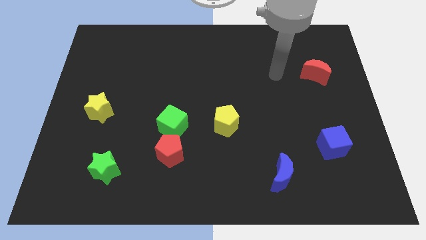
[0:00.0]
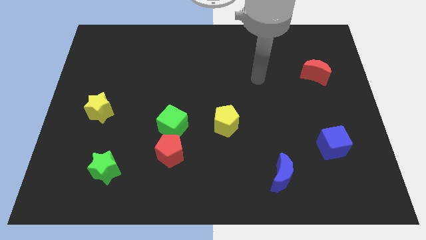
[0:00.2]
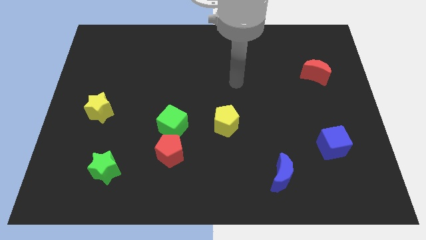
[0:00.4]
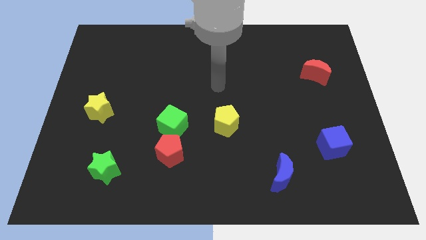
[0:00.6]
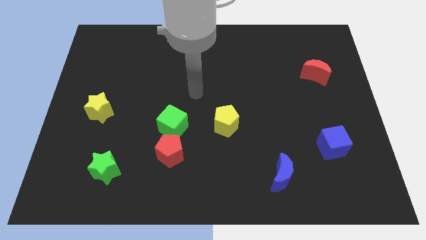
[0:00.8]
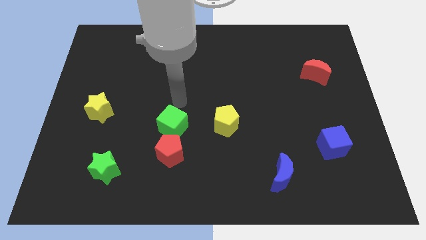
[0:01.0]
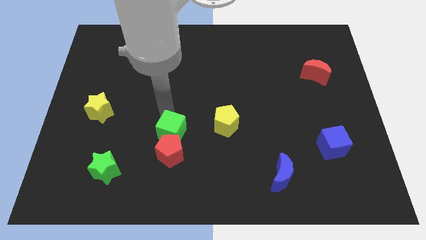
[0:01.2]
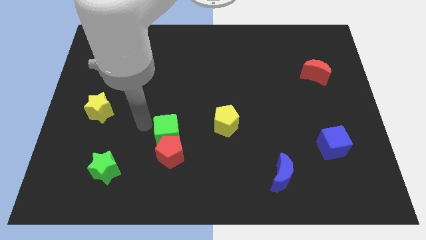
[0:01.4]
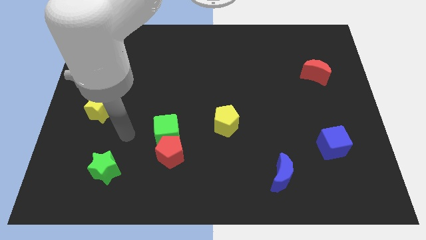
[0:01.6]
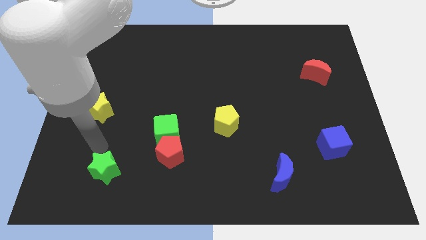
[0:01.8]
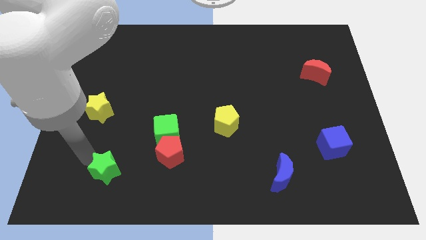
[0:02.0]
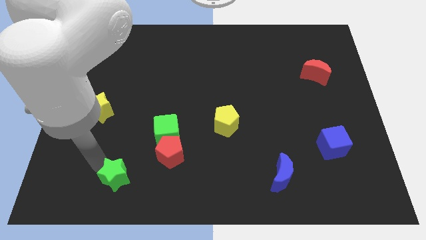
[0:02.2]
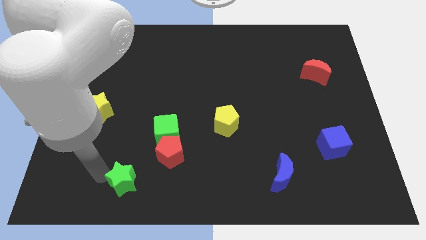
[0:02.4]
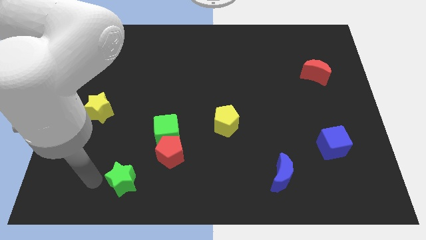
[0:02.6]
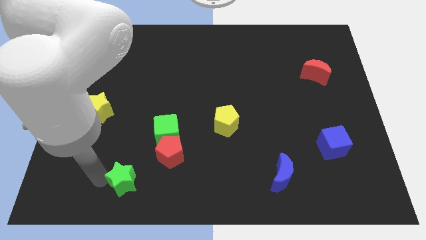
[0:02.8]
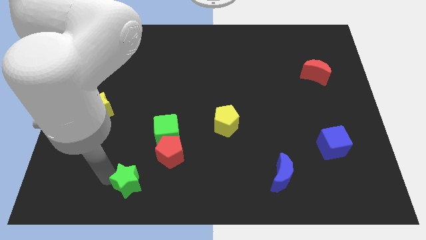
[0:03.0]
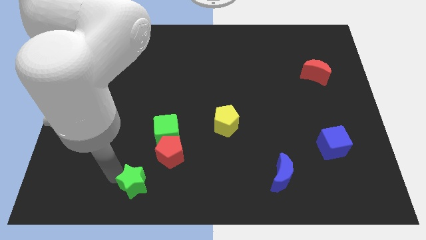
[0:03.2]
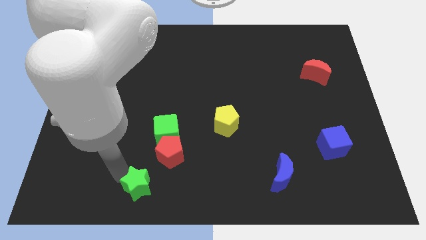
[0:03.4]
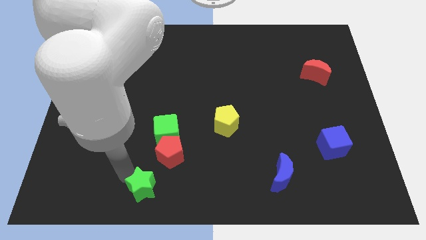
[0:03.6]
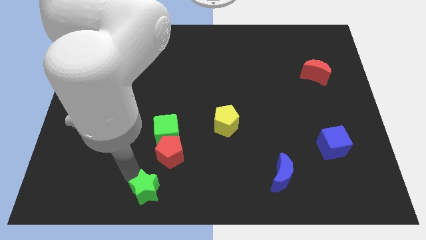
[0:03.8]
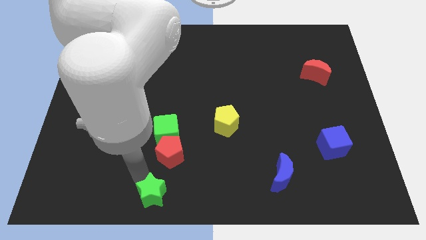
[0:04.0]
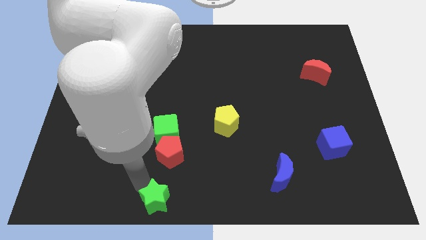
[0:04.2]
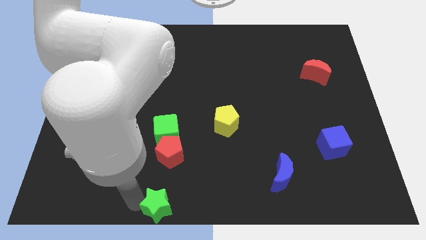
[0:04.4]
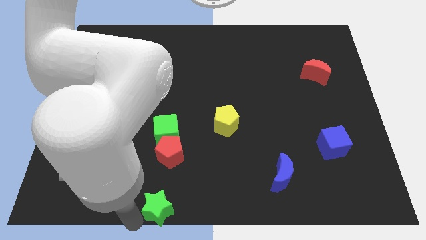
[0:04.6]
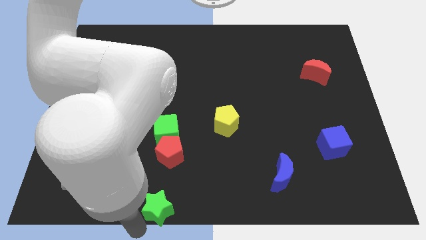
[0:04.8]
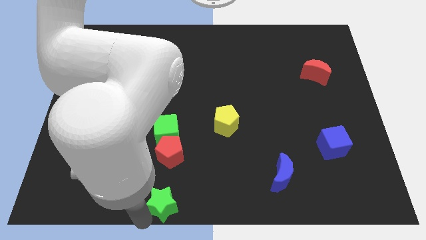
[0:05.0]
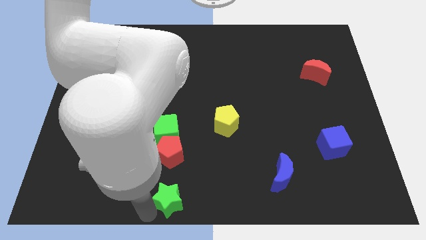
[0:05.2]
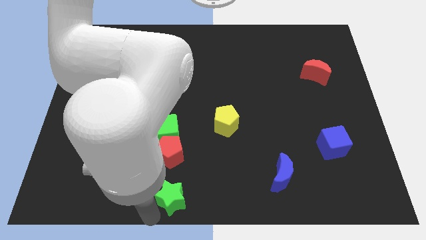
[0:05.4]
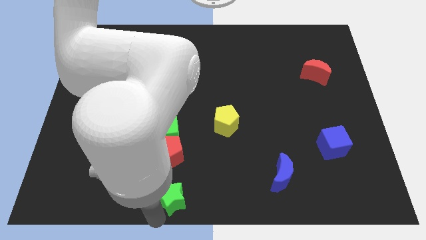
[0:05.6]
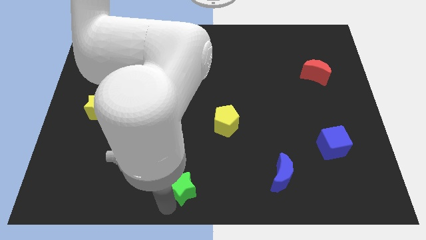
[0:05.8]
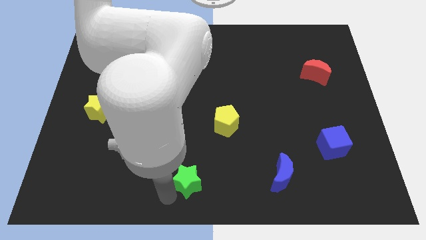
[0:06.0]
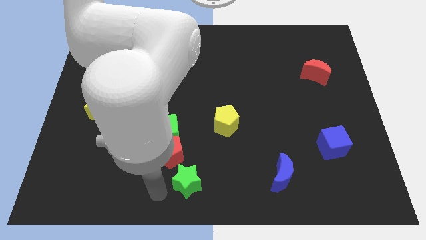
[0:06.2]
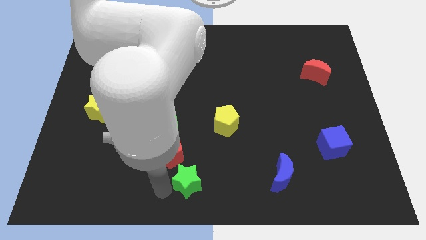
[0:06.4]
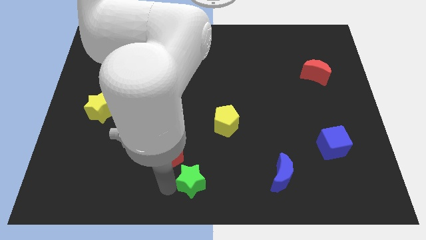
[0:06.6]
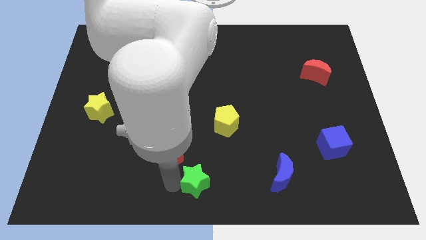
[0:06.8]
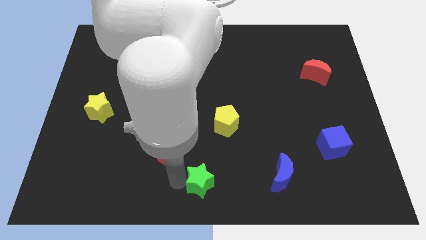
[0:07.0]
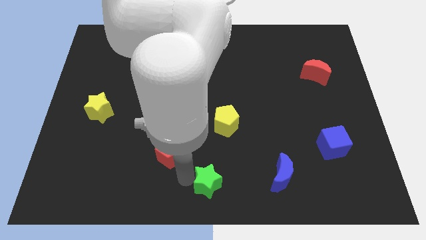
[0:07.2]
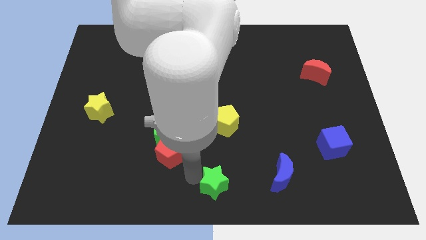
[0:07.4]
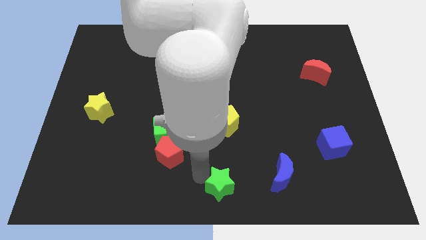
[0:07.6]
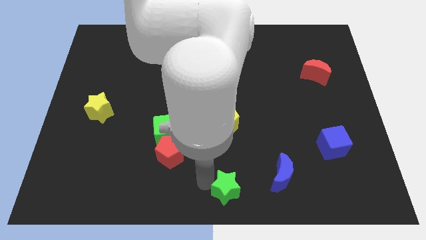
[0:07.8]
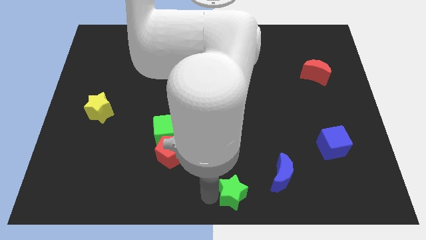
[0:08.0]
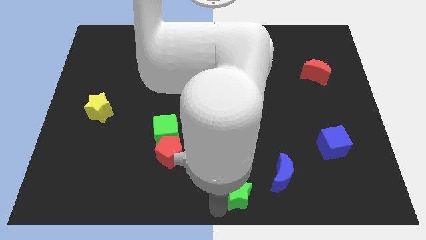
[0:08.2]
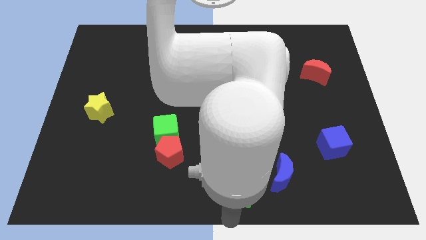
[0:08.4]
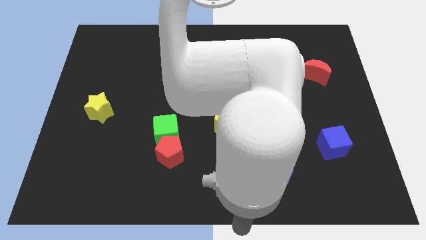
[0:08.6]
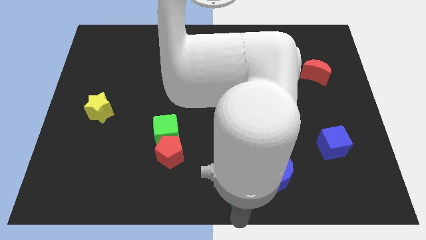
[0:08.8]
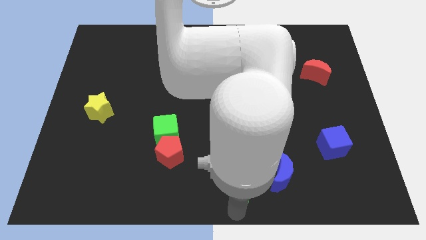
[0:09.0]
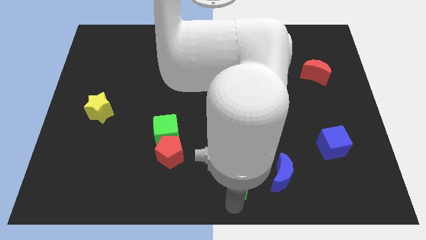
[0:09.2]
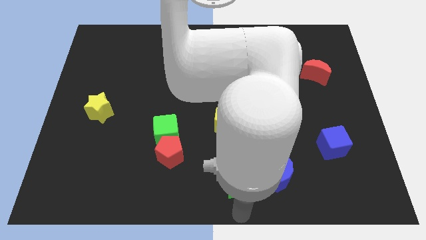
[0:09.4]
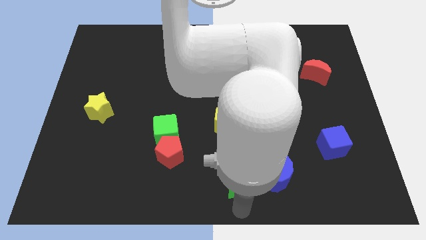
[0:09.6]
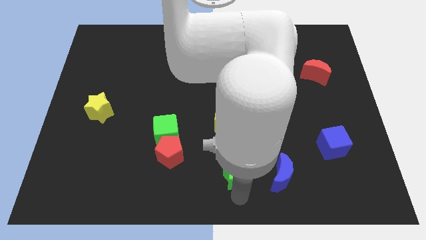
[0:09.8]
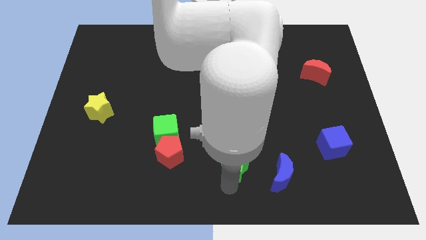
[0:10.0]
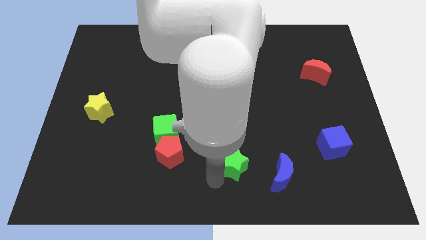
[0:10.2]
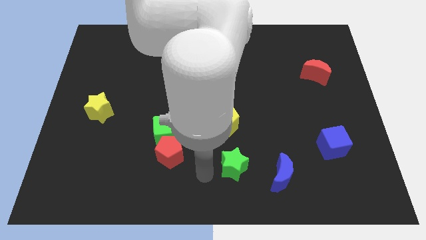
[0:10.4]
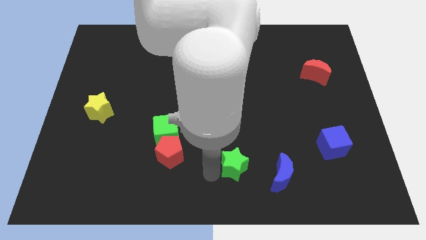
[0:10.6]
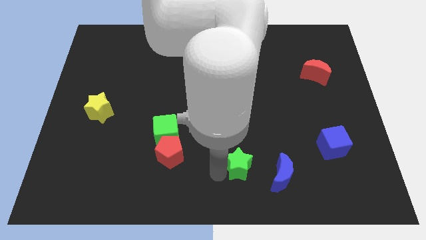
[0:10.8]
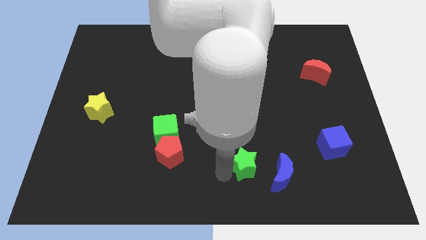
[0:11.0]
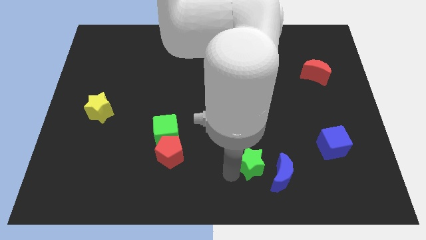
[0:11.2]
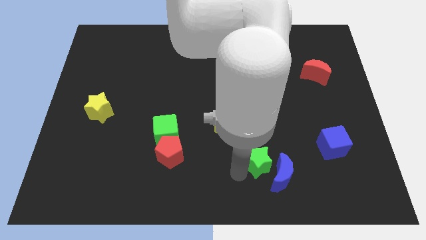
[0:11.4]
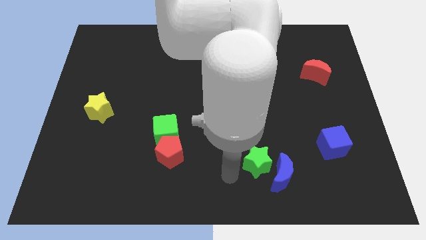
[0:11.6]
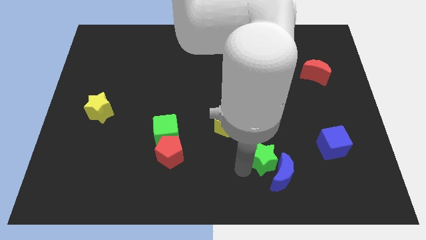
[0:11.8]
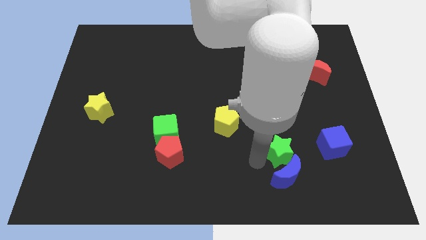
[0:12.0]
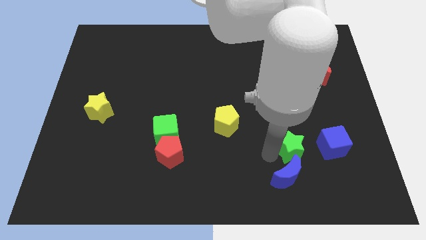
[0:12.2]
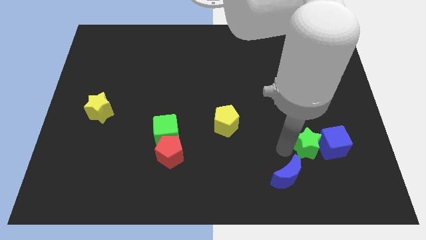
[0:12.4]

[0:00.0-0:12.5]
put the green star towards the blue cube

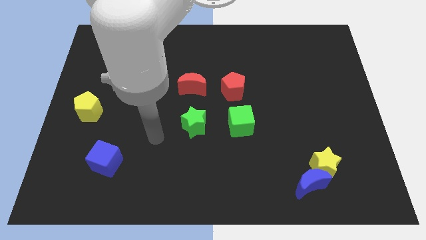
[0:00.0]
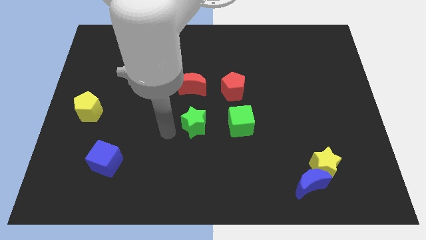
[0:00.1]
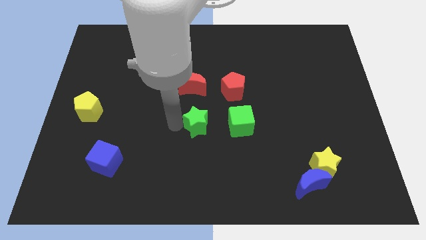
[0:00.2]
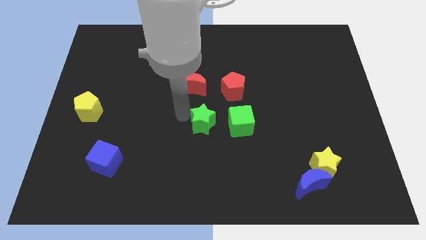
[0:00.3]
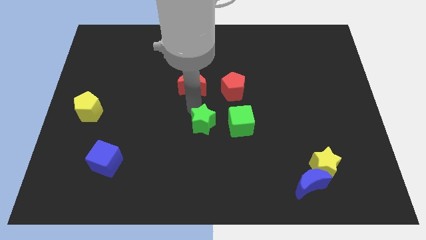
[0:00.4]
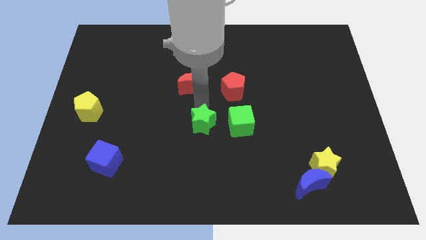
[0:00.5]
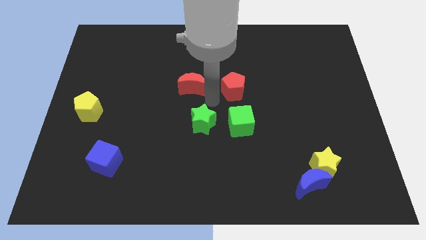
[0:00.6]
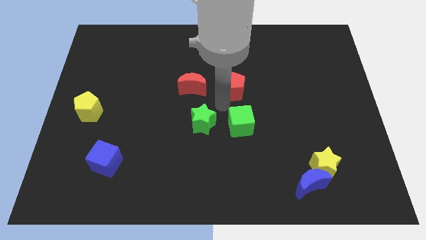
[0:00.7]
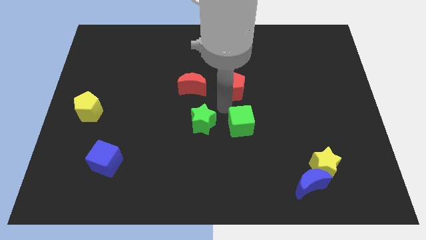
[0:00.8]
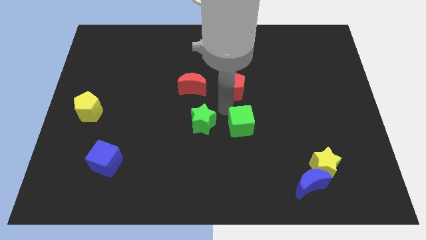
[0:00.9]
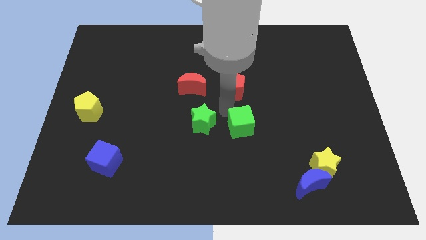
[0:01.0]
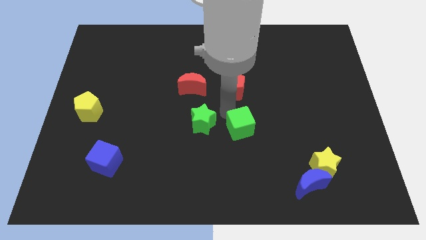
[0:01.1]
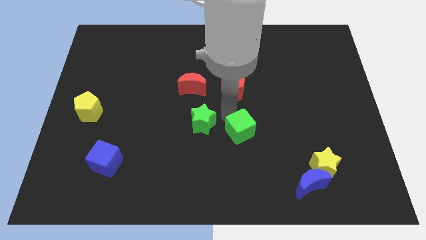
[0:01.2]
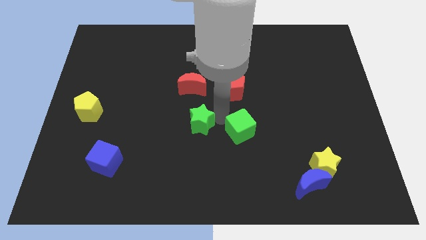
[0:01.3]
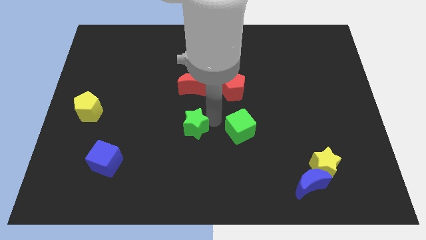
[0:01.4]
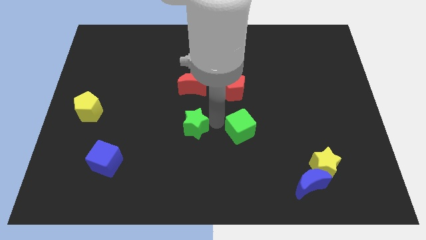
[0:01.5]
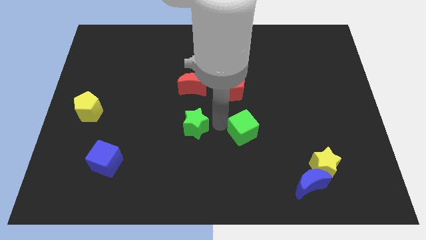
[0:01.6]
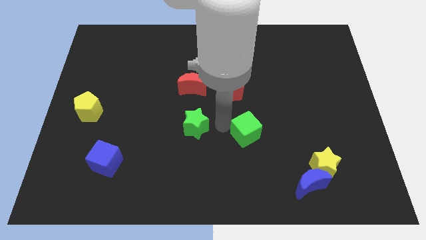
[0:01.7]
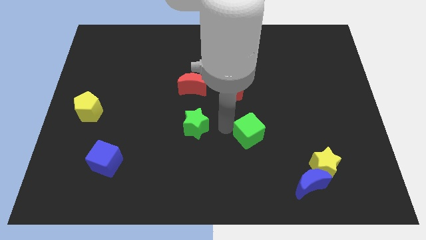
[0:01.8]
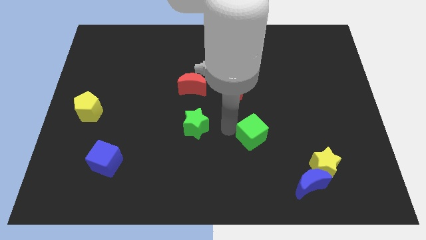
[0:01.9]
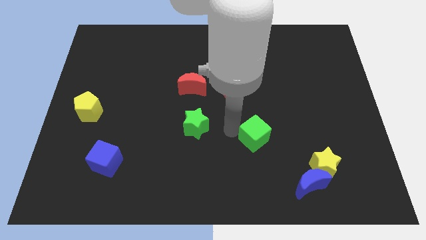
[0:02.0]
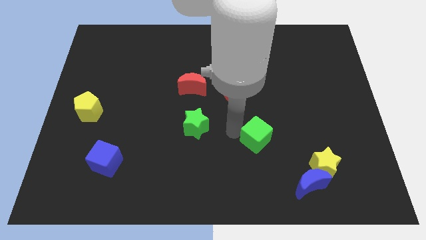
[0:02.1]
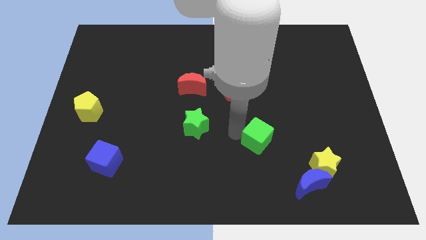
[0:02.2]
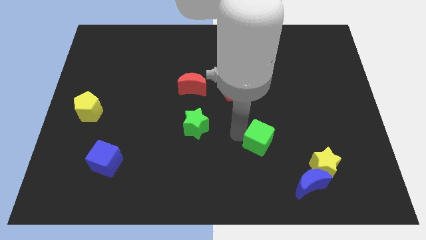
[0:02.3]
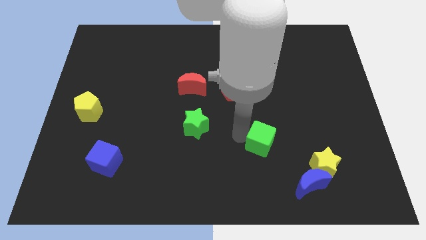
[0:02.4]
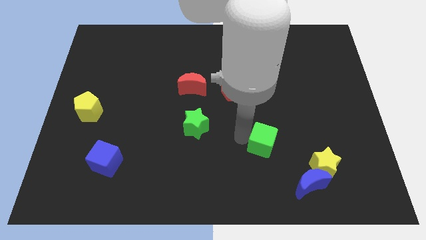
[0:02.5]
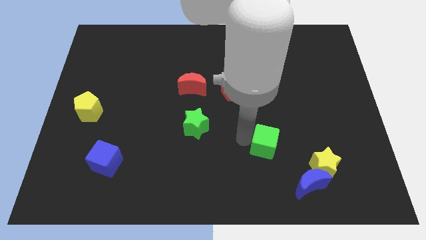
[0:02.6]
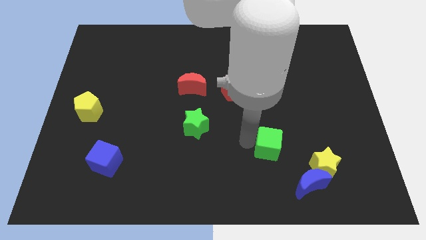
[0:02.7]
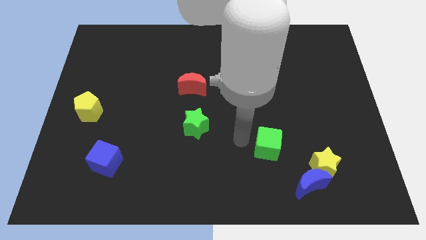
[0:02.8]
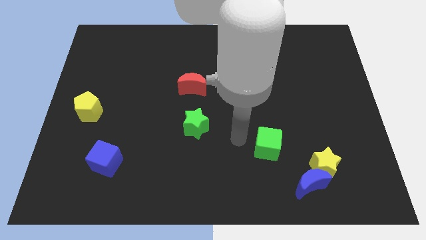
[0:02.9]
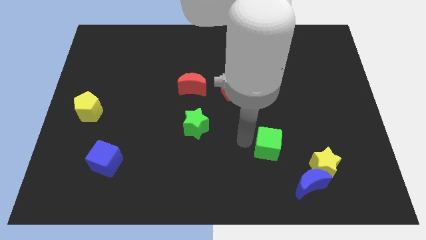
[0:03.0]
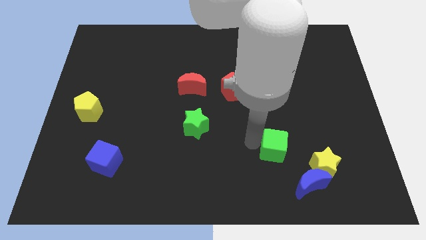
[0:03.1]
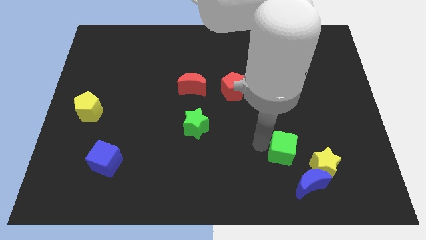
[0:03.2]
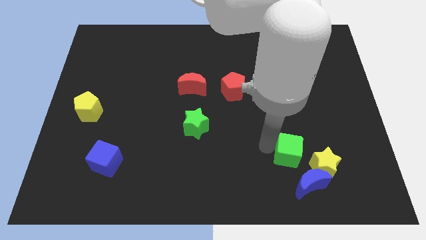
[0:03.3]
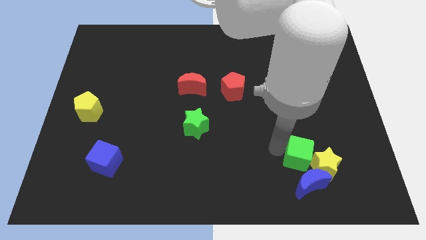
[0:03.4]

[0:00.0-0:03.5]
slide the green cube to the yellow star
